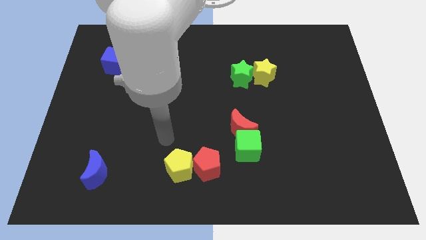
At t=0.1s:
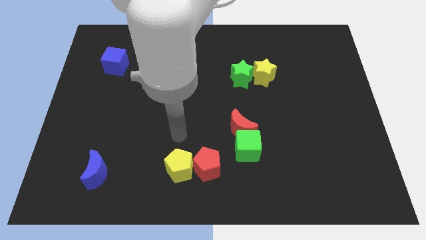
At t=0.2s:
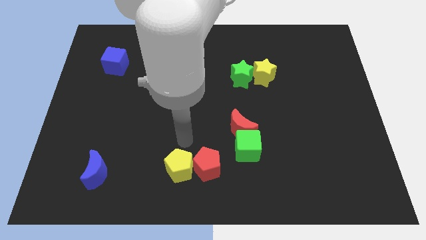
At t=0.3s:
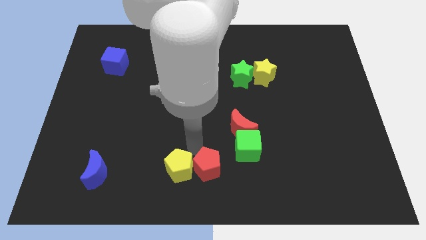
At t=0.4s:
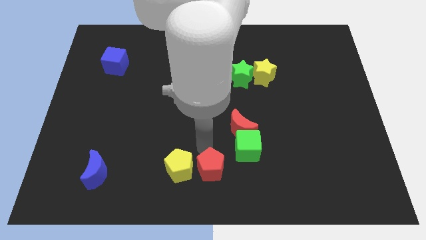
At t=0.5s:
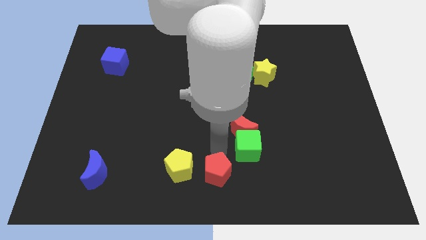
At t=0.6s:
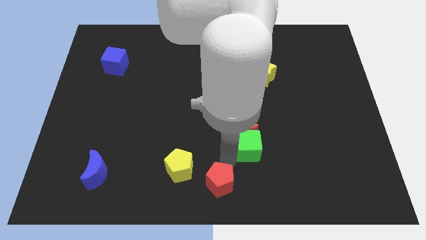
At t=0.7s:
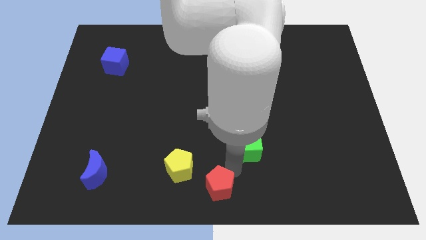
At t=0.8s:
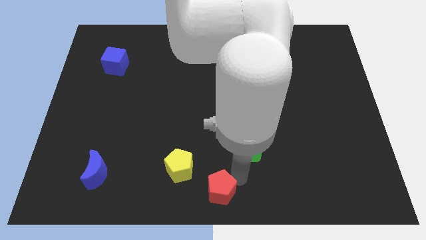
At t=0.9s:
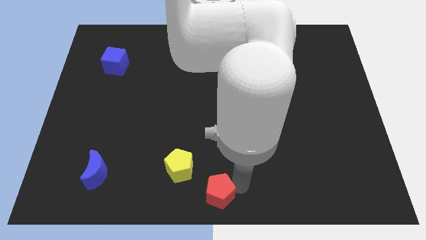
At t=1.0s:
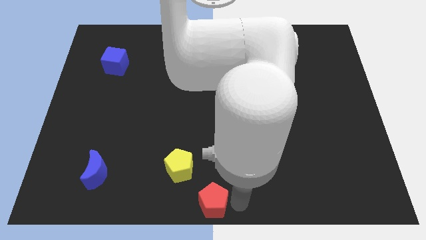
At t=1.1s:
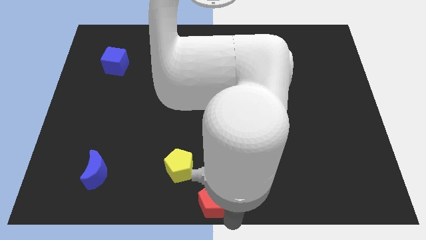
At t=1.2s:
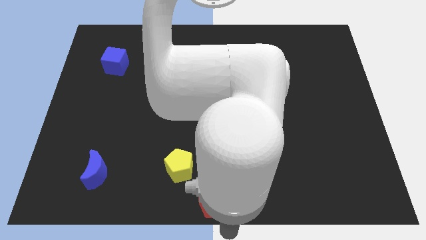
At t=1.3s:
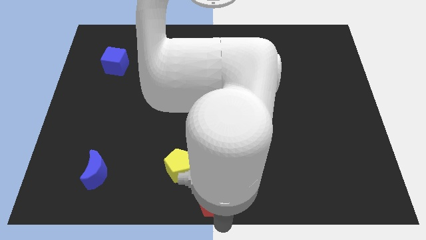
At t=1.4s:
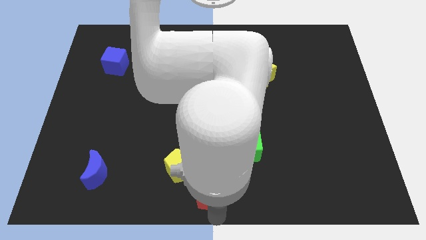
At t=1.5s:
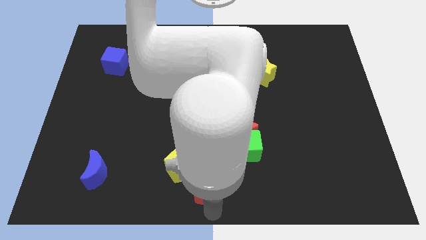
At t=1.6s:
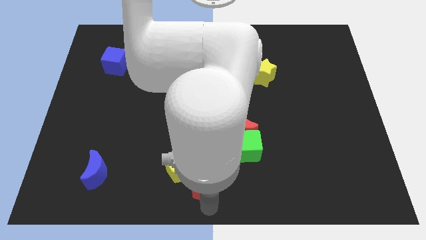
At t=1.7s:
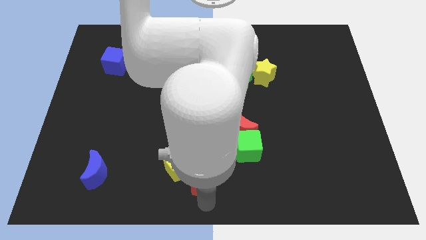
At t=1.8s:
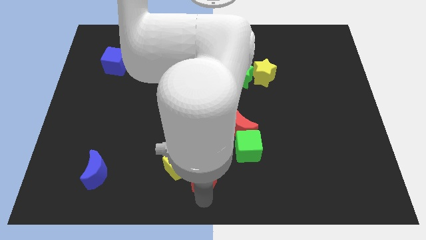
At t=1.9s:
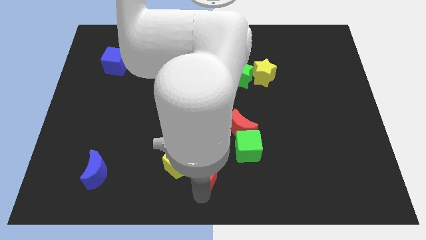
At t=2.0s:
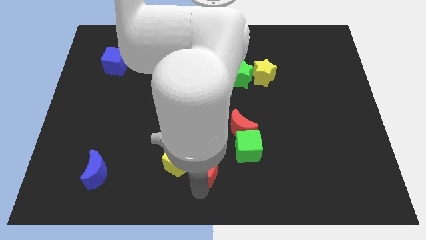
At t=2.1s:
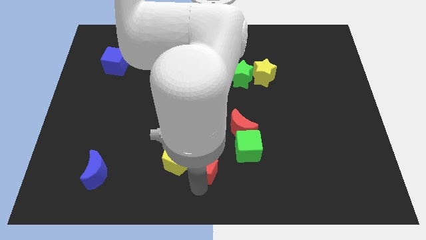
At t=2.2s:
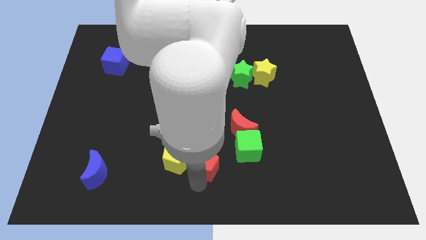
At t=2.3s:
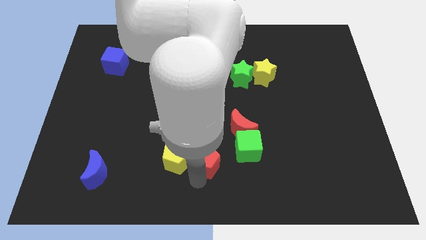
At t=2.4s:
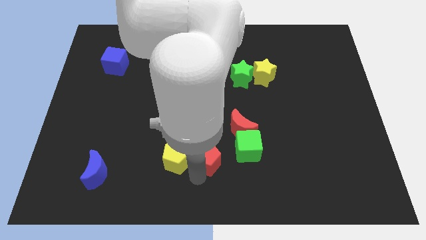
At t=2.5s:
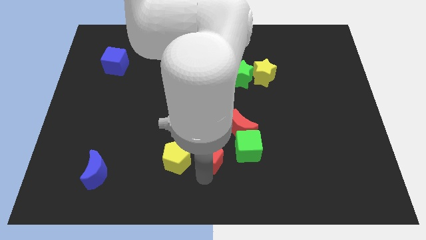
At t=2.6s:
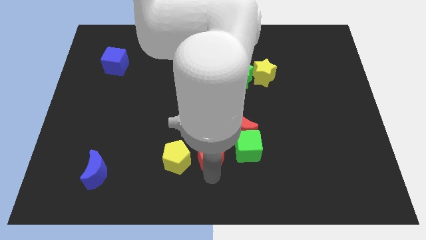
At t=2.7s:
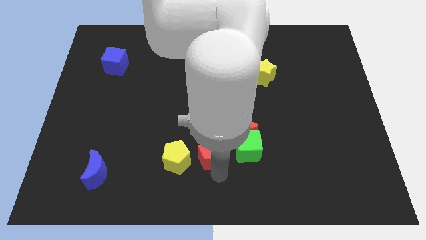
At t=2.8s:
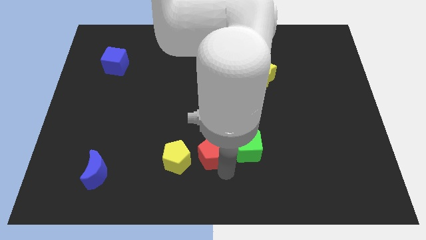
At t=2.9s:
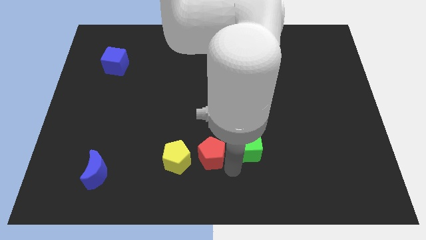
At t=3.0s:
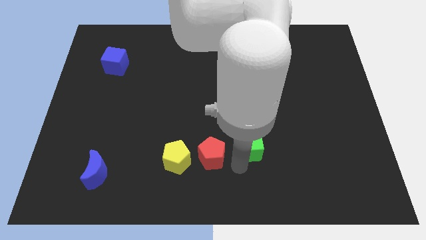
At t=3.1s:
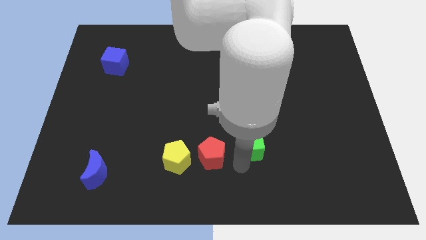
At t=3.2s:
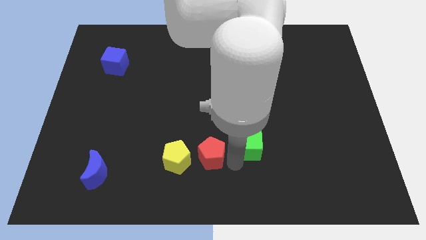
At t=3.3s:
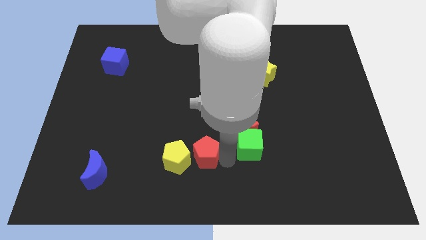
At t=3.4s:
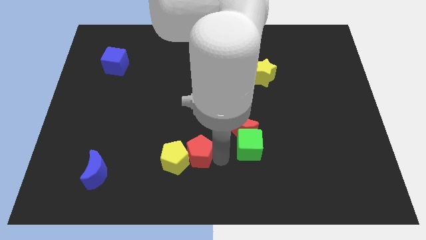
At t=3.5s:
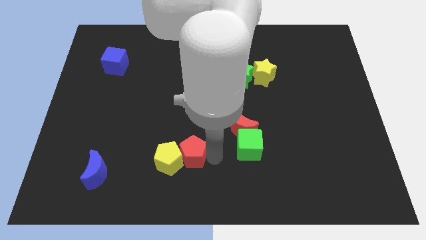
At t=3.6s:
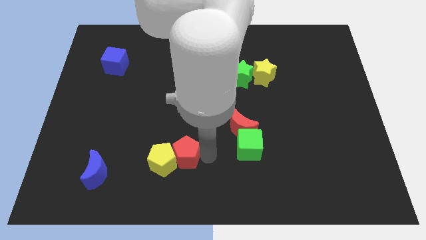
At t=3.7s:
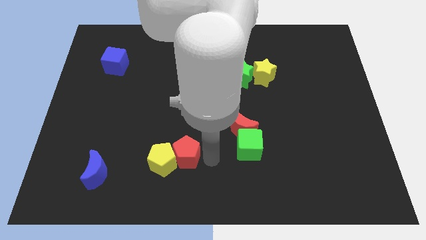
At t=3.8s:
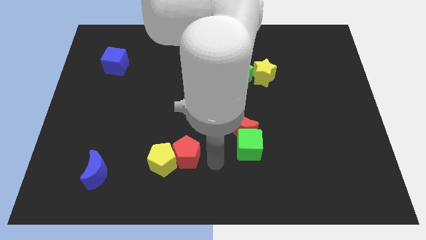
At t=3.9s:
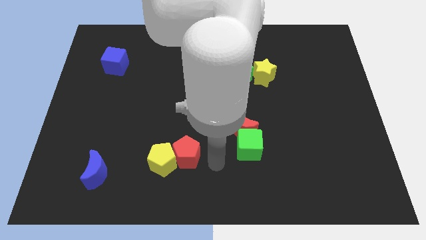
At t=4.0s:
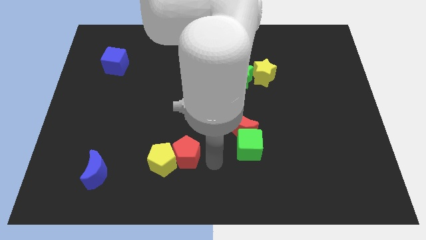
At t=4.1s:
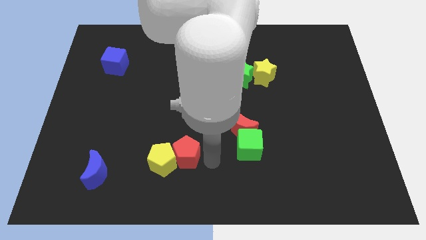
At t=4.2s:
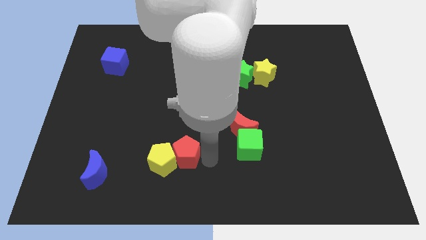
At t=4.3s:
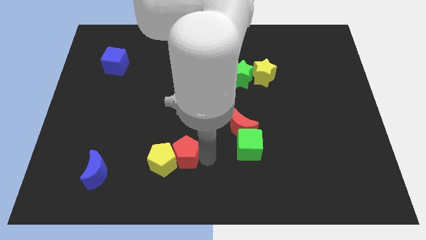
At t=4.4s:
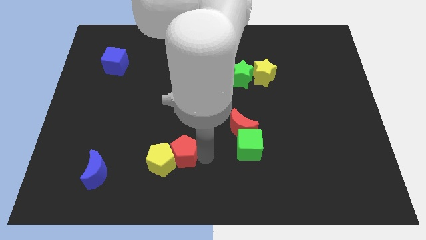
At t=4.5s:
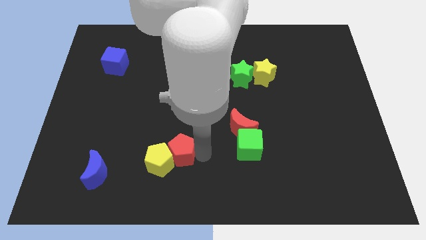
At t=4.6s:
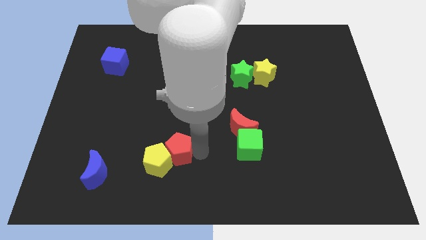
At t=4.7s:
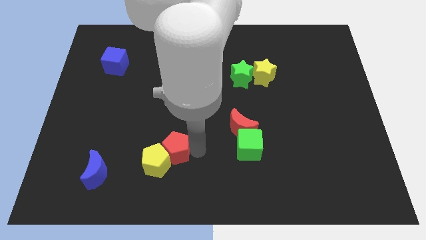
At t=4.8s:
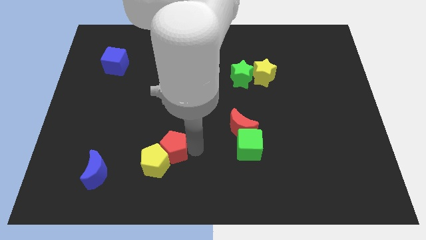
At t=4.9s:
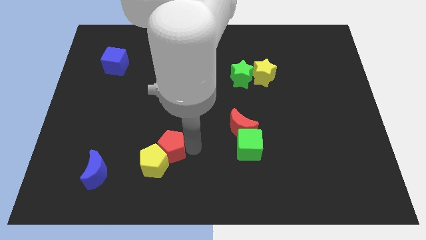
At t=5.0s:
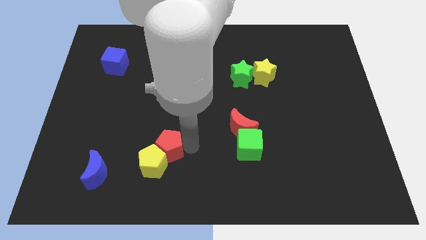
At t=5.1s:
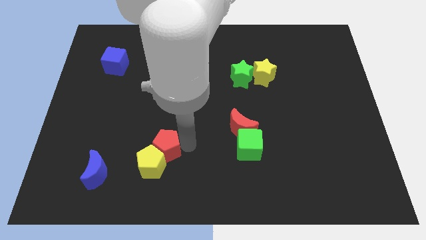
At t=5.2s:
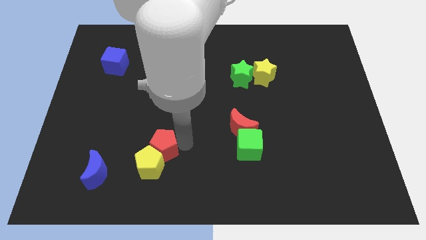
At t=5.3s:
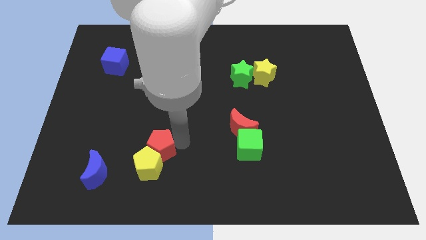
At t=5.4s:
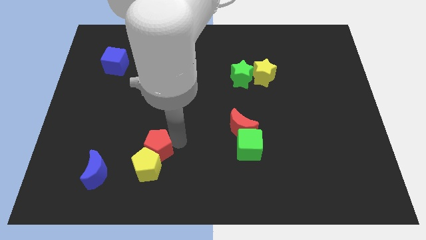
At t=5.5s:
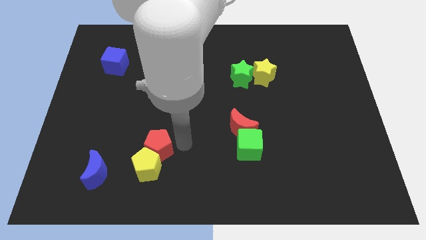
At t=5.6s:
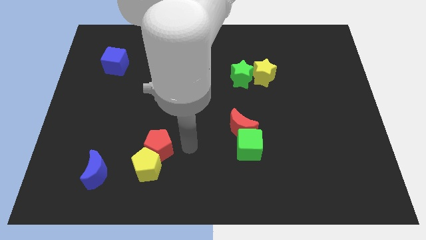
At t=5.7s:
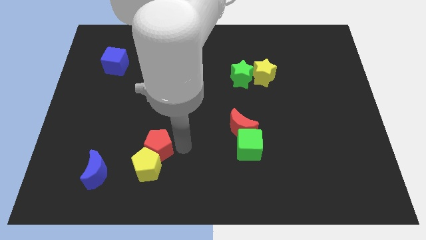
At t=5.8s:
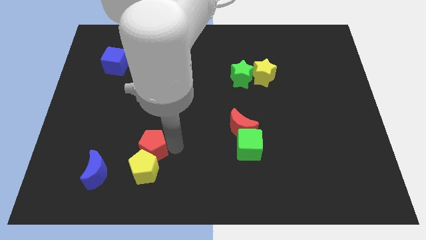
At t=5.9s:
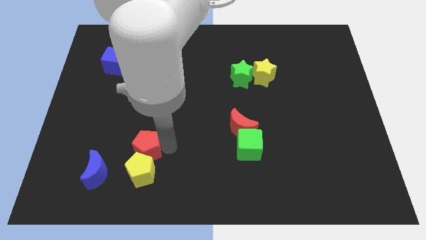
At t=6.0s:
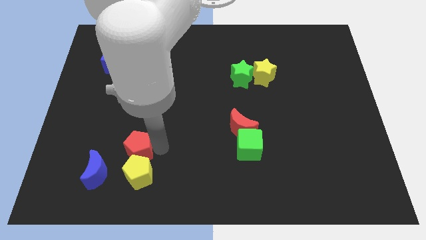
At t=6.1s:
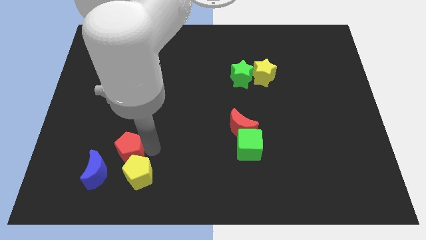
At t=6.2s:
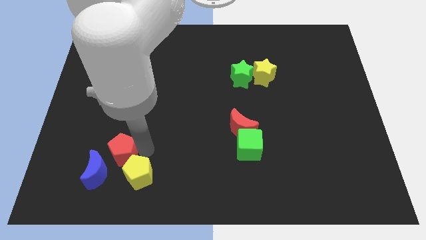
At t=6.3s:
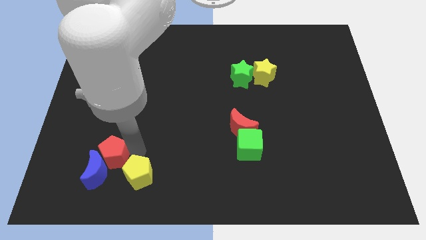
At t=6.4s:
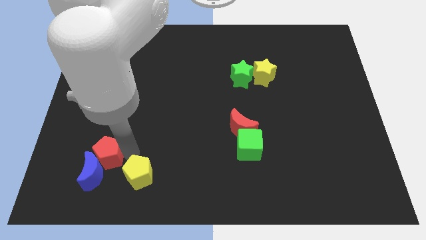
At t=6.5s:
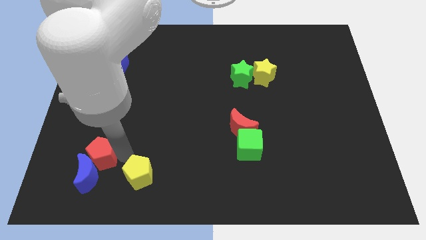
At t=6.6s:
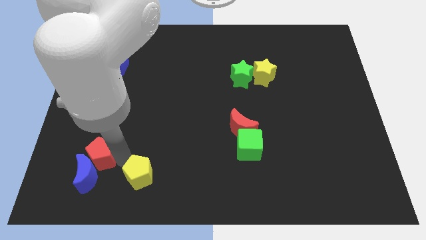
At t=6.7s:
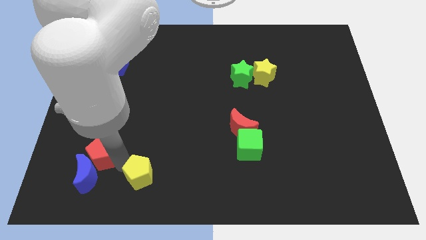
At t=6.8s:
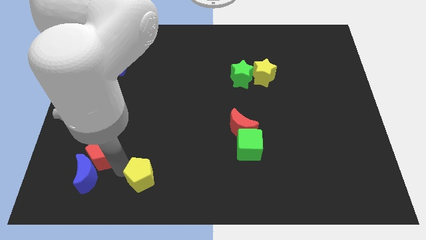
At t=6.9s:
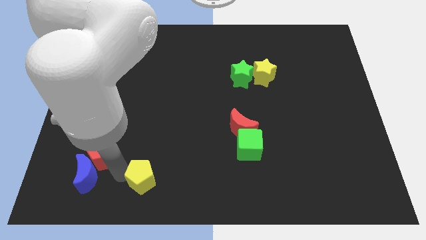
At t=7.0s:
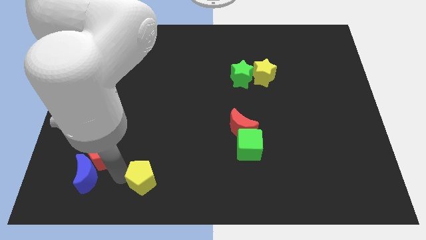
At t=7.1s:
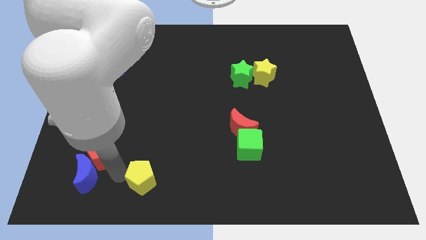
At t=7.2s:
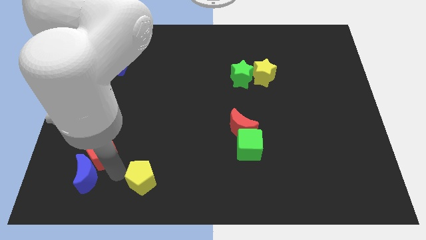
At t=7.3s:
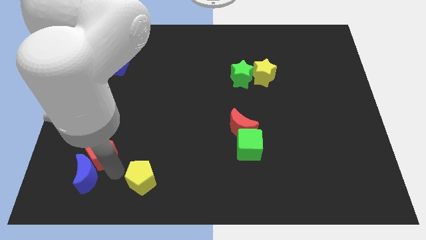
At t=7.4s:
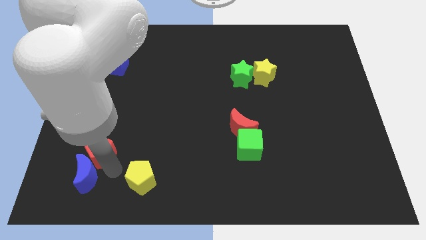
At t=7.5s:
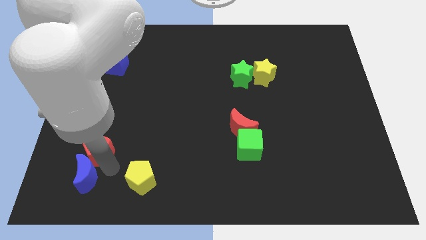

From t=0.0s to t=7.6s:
push the red pentagon to the top left side of the blue moon
